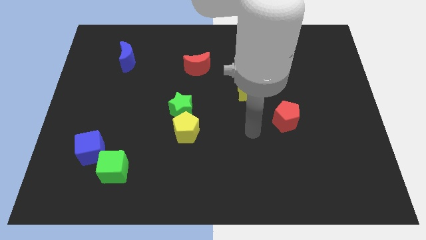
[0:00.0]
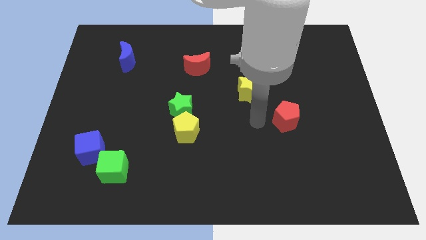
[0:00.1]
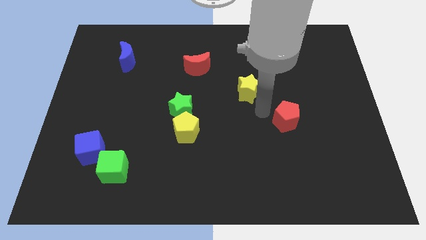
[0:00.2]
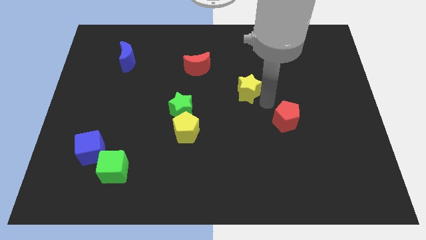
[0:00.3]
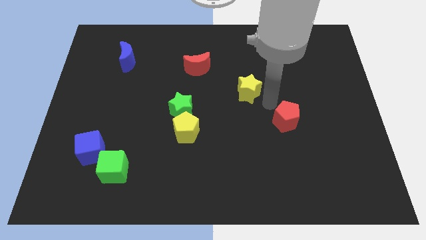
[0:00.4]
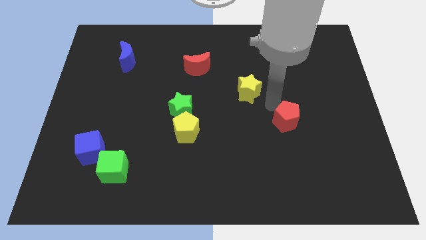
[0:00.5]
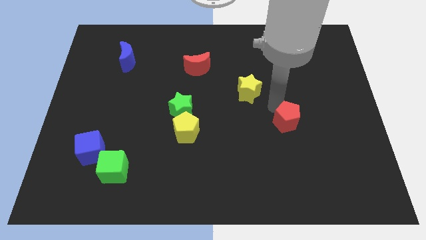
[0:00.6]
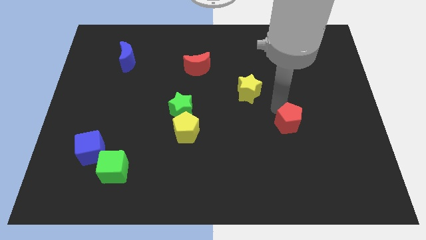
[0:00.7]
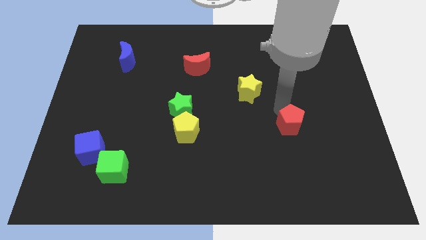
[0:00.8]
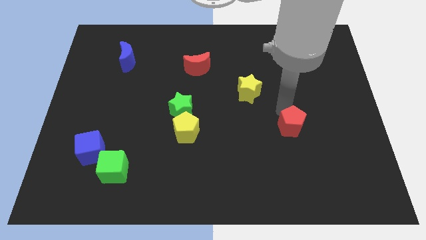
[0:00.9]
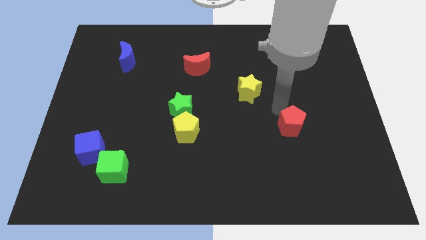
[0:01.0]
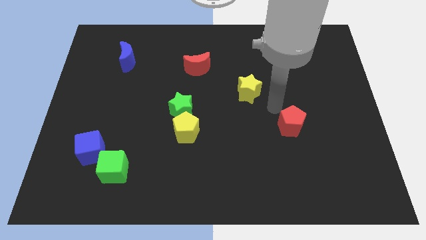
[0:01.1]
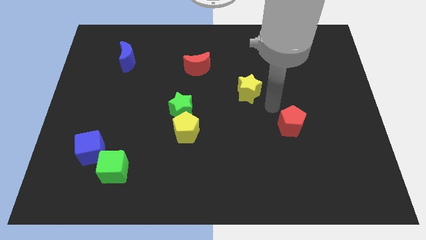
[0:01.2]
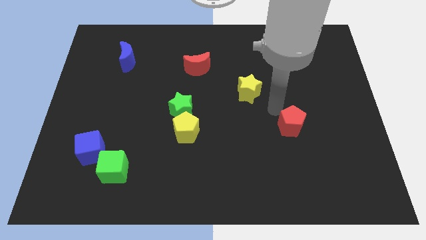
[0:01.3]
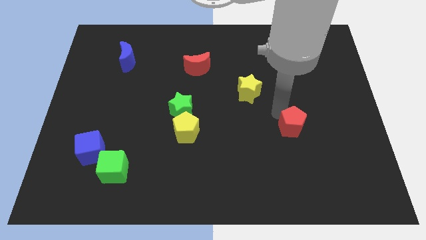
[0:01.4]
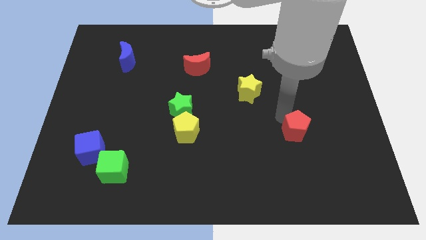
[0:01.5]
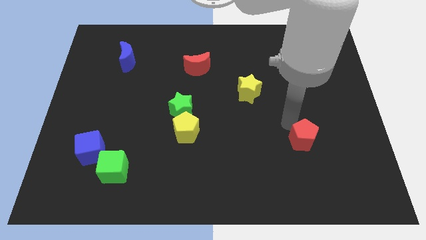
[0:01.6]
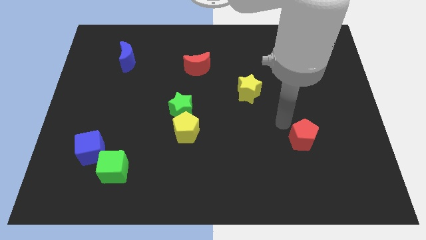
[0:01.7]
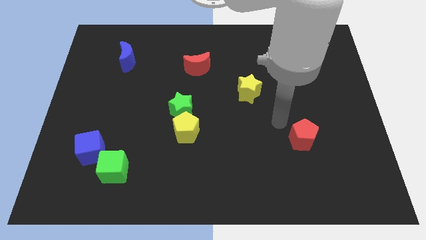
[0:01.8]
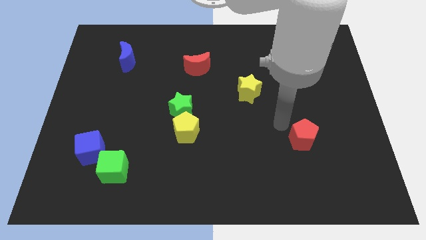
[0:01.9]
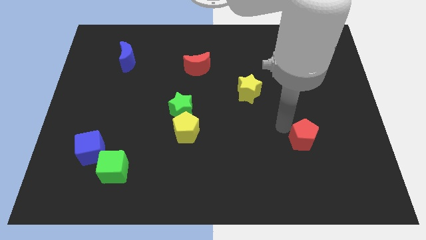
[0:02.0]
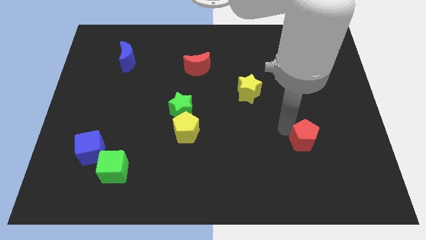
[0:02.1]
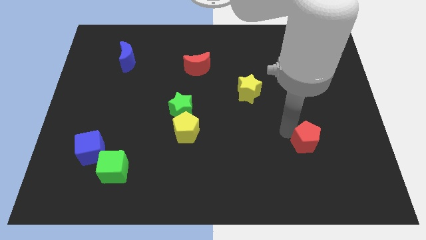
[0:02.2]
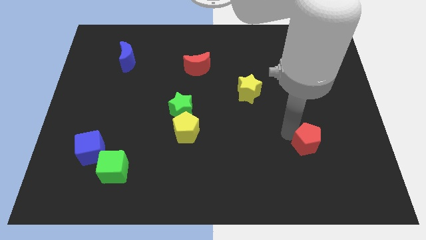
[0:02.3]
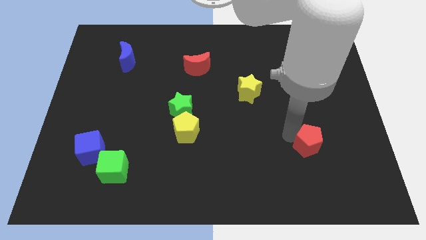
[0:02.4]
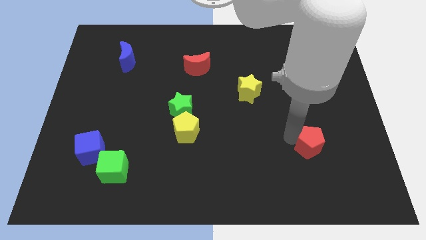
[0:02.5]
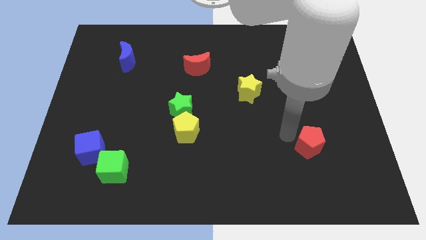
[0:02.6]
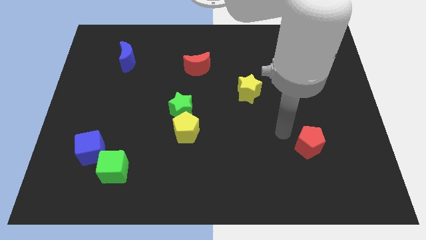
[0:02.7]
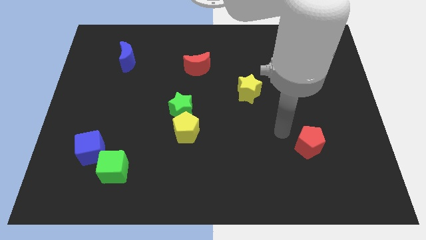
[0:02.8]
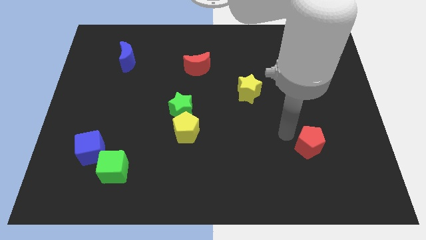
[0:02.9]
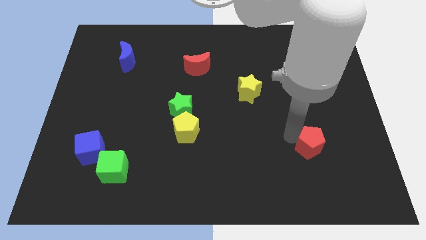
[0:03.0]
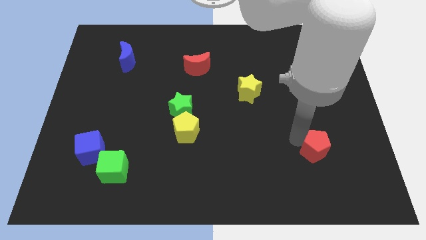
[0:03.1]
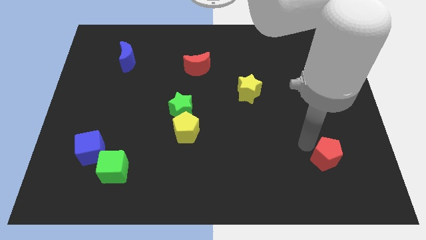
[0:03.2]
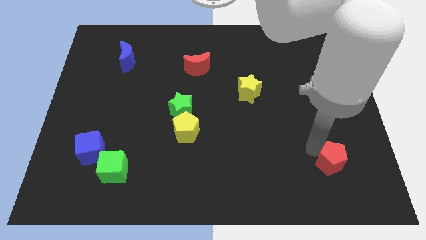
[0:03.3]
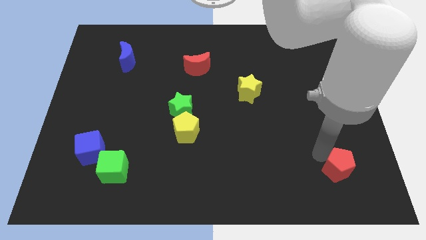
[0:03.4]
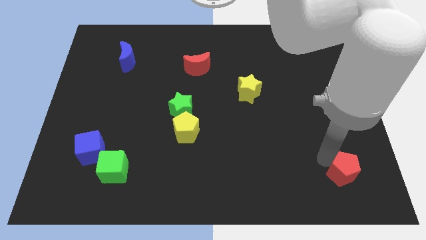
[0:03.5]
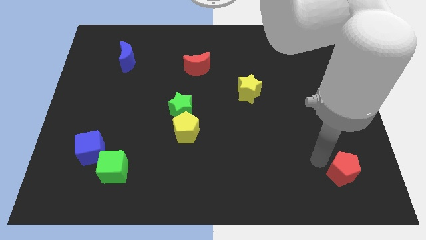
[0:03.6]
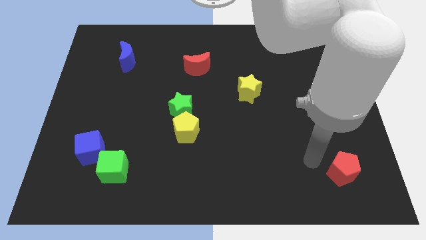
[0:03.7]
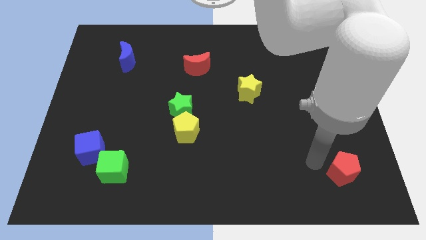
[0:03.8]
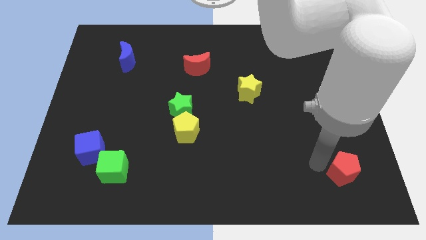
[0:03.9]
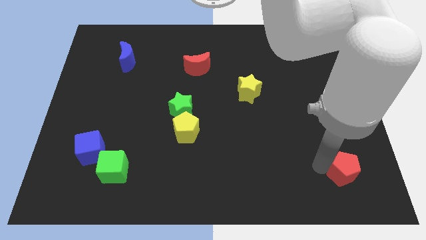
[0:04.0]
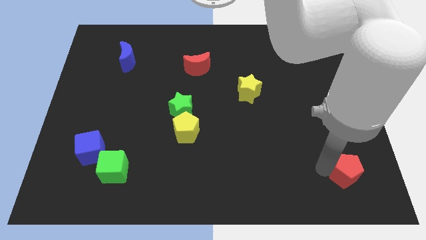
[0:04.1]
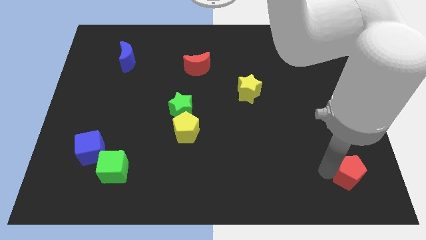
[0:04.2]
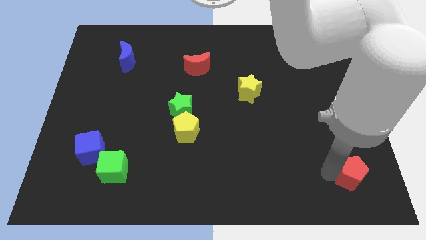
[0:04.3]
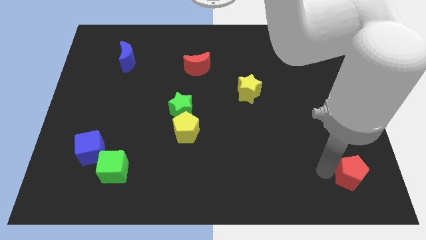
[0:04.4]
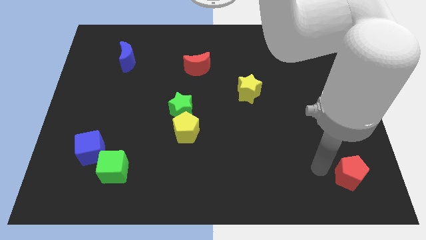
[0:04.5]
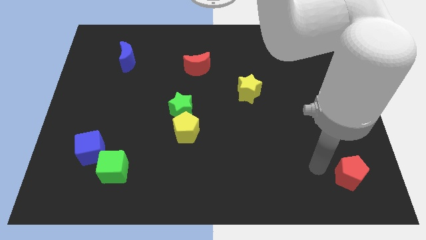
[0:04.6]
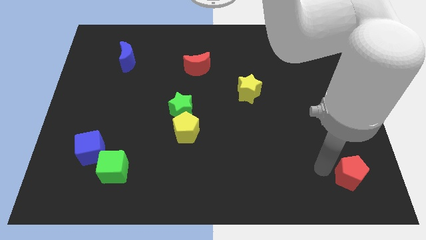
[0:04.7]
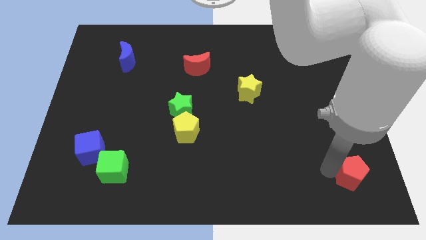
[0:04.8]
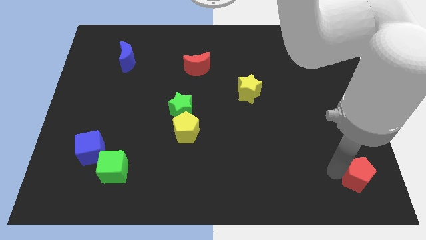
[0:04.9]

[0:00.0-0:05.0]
put the red pentagon to the bottom right of the board

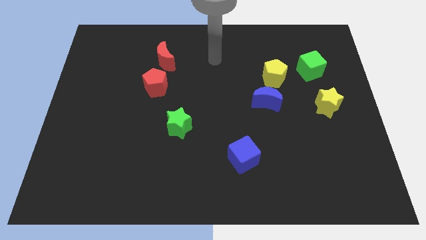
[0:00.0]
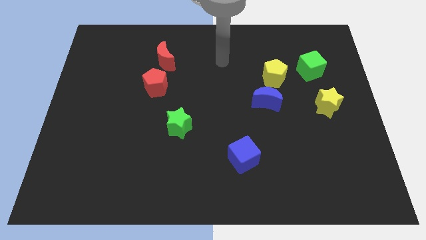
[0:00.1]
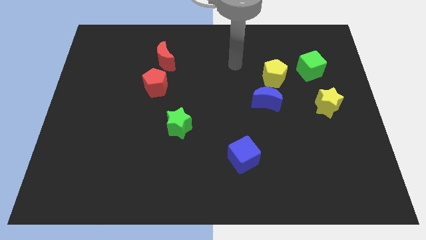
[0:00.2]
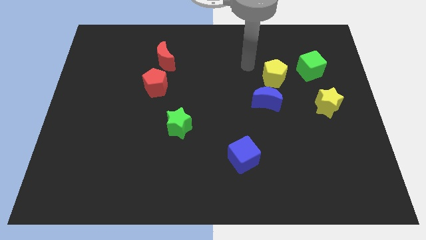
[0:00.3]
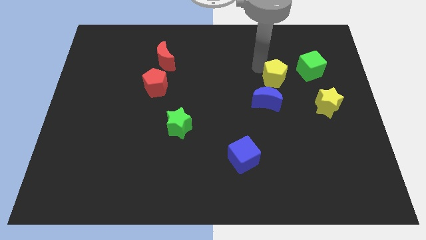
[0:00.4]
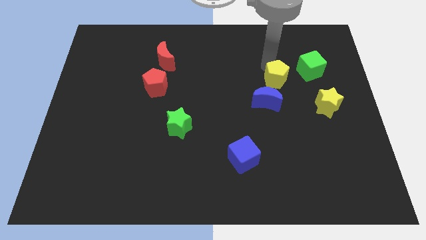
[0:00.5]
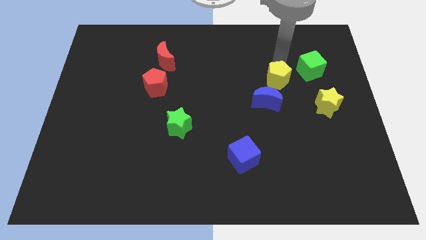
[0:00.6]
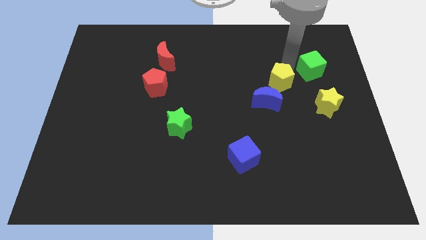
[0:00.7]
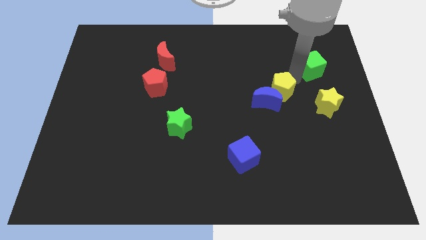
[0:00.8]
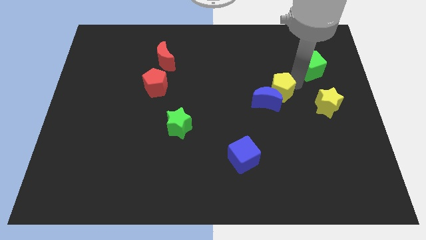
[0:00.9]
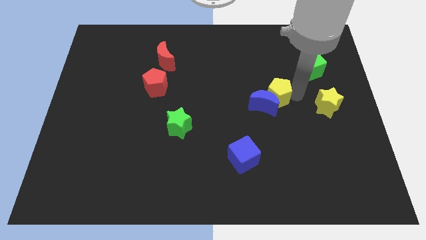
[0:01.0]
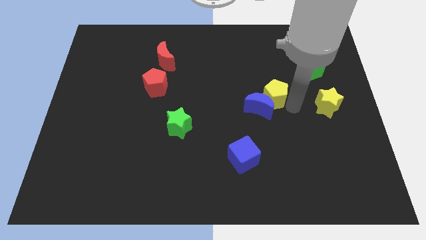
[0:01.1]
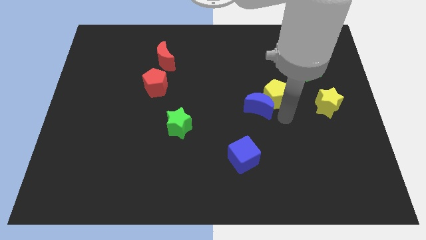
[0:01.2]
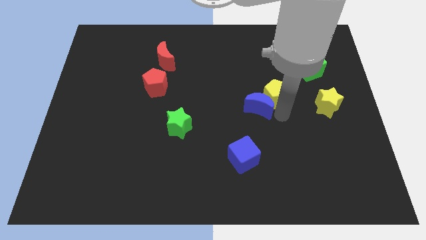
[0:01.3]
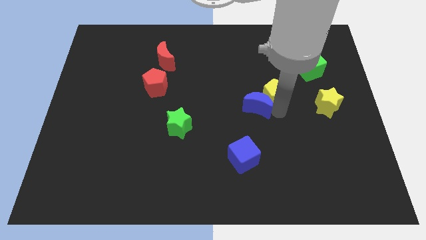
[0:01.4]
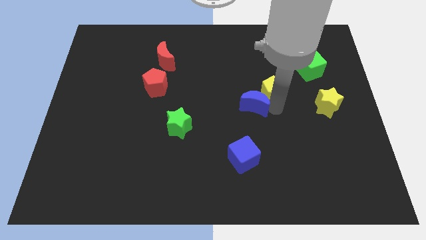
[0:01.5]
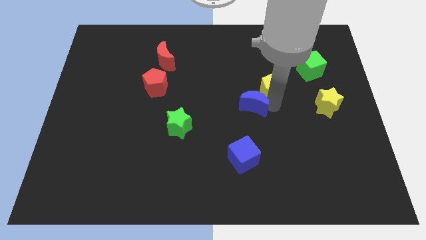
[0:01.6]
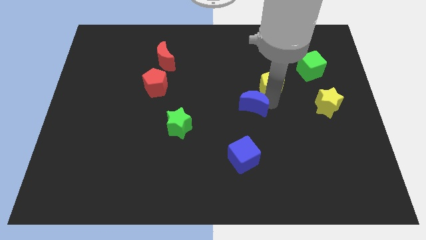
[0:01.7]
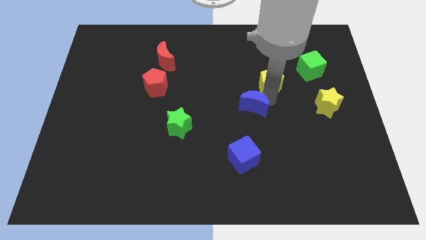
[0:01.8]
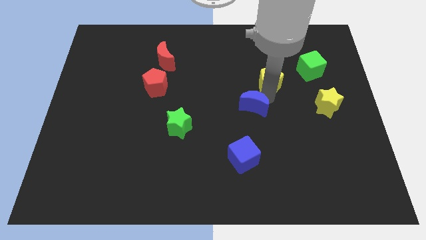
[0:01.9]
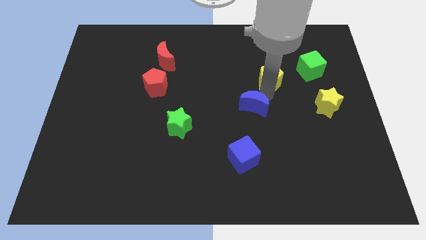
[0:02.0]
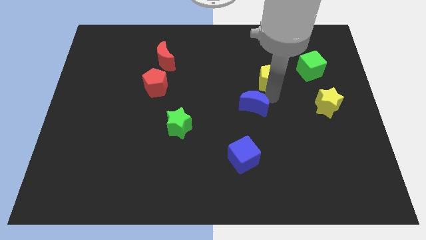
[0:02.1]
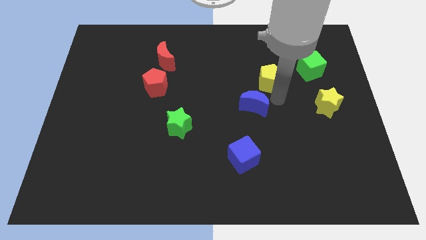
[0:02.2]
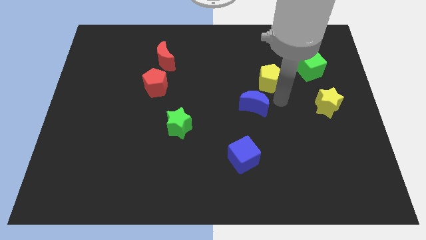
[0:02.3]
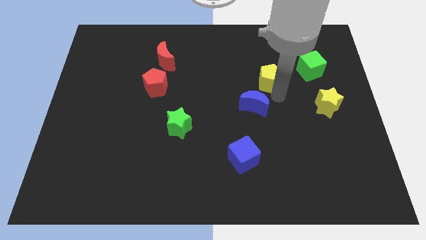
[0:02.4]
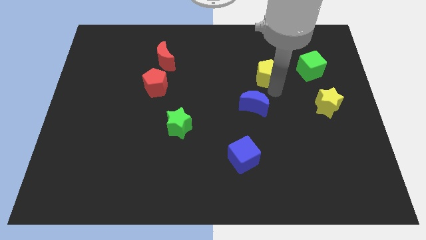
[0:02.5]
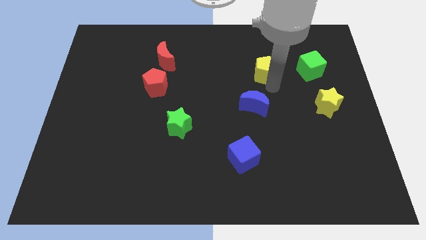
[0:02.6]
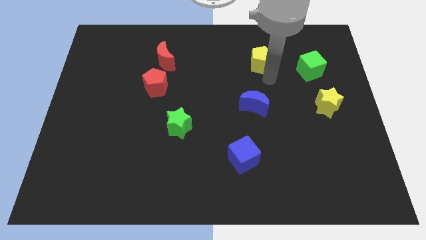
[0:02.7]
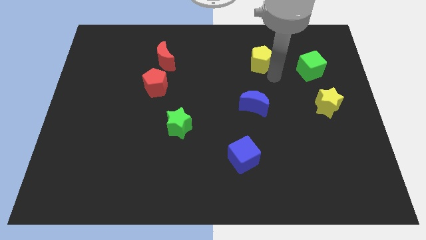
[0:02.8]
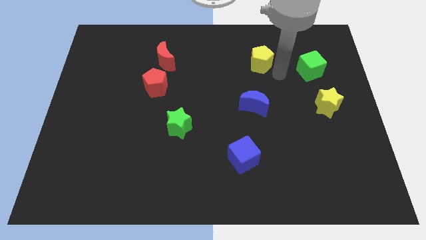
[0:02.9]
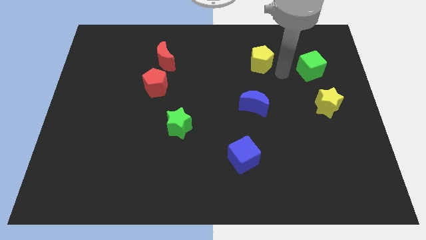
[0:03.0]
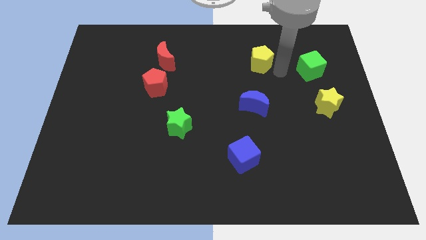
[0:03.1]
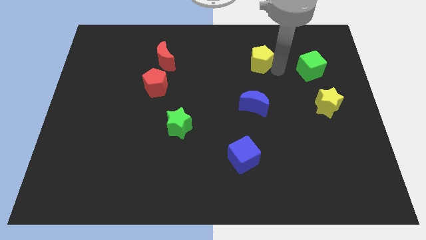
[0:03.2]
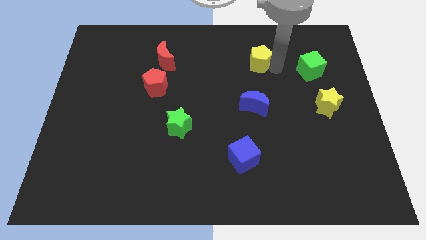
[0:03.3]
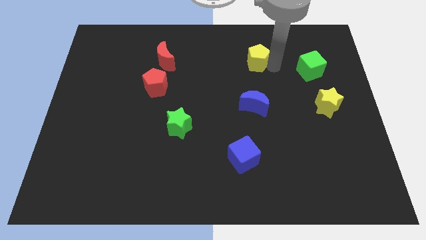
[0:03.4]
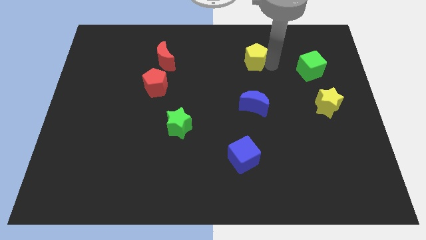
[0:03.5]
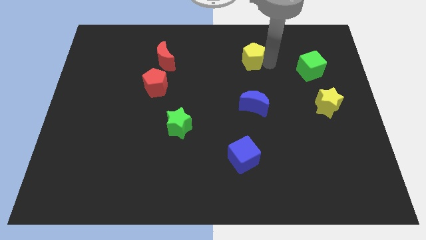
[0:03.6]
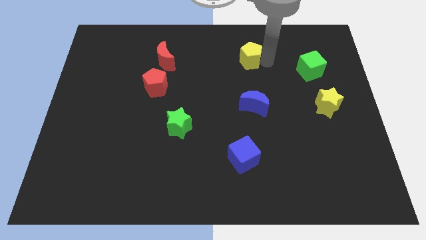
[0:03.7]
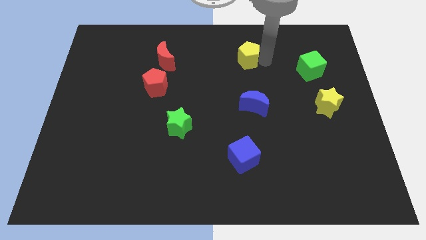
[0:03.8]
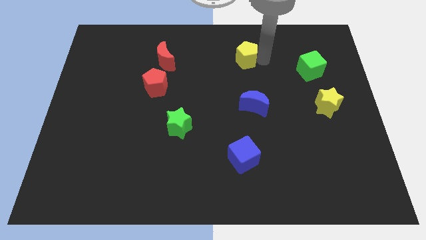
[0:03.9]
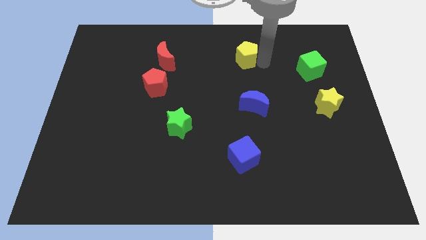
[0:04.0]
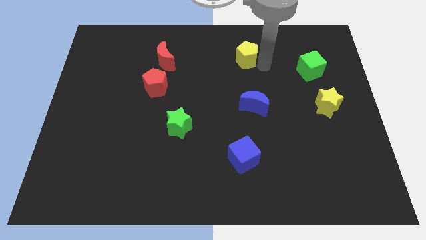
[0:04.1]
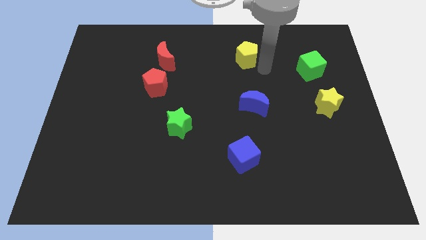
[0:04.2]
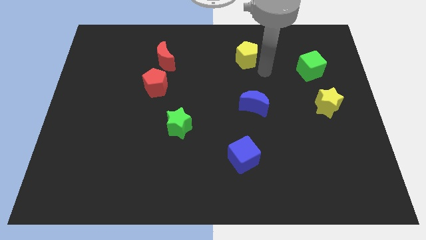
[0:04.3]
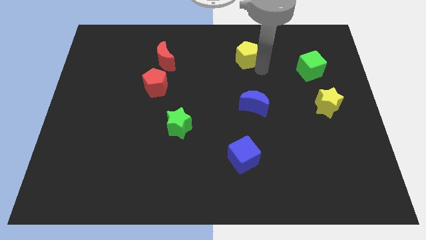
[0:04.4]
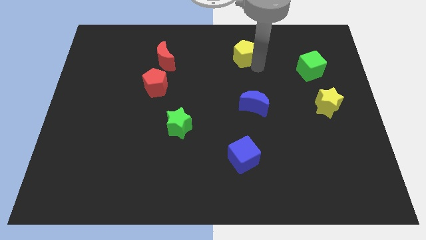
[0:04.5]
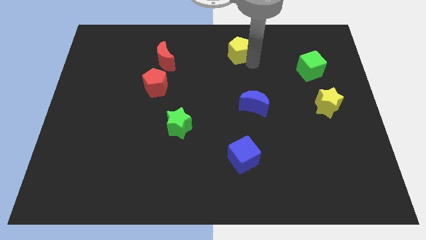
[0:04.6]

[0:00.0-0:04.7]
slide the yellow pentagon to the top
